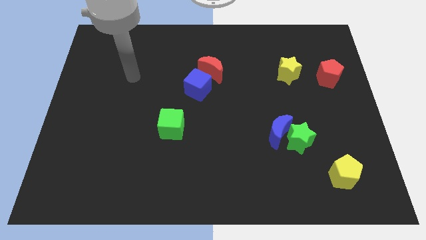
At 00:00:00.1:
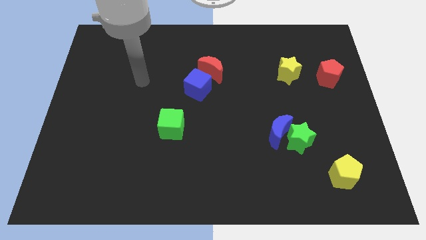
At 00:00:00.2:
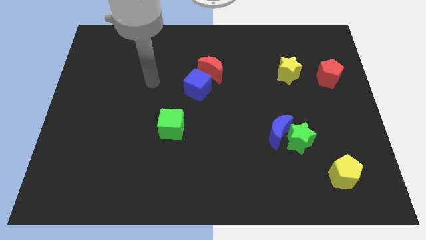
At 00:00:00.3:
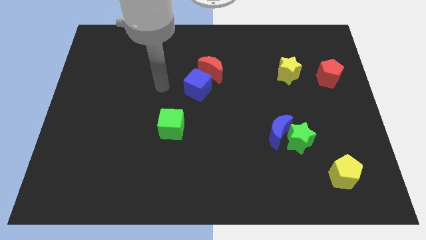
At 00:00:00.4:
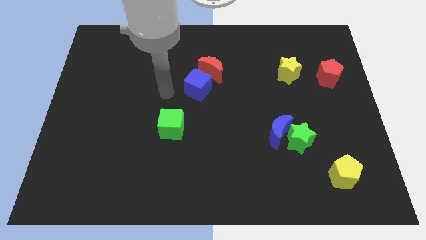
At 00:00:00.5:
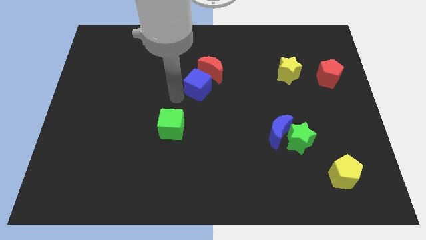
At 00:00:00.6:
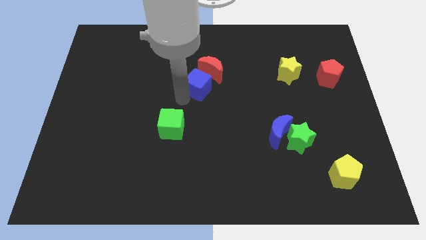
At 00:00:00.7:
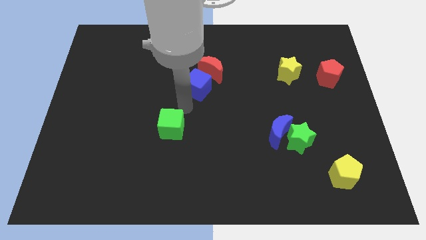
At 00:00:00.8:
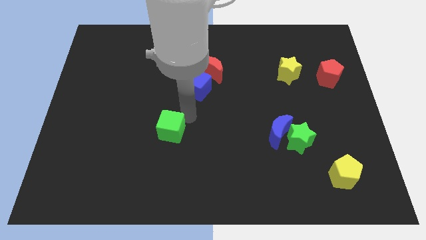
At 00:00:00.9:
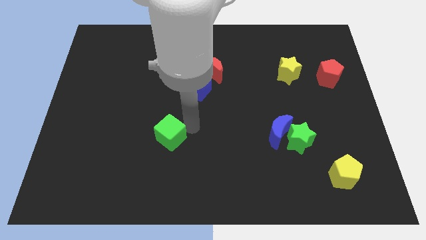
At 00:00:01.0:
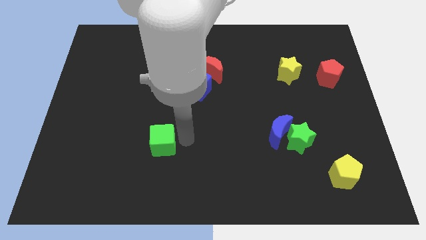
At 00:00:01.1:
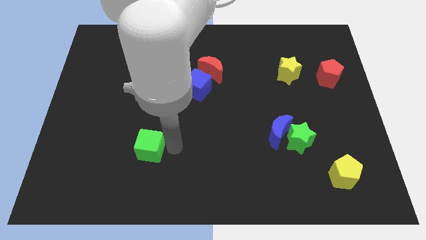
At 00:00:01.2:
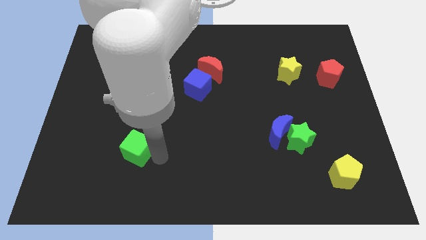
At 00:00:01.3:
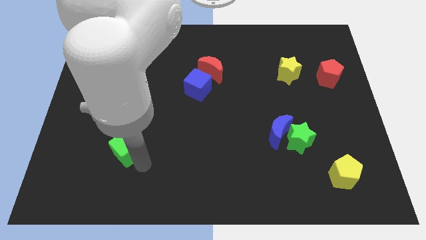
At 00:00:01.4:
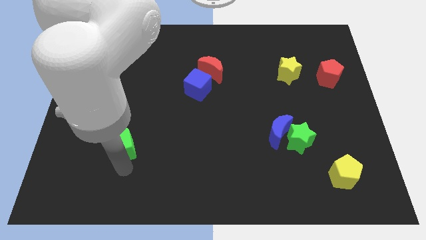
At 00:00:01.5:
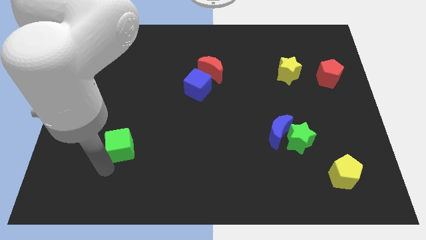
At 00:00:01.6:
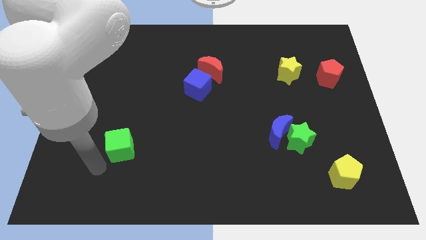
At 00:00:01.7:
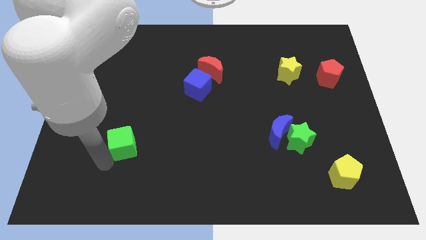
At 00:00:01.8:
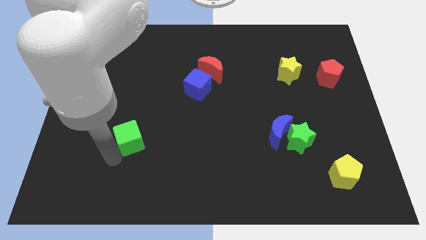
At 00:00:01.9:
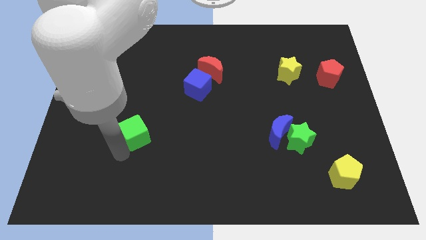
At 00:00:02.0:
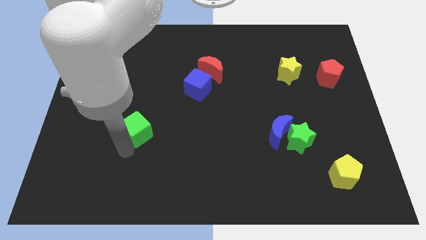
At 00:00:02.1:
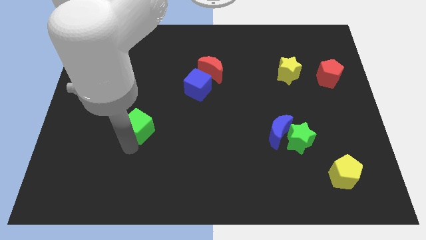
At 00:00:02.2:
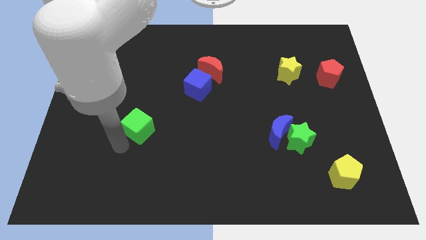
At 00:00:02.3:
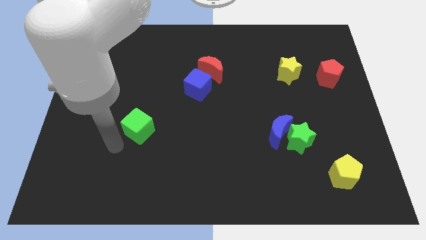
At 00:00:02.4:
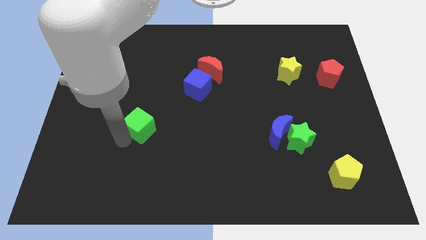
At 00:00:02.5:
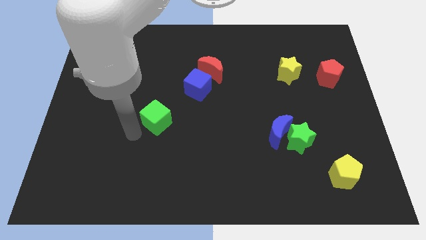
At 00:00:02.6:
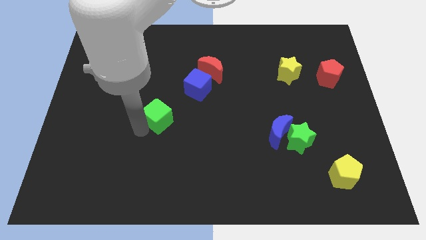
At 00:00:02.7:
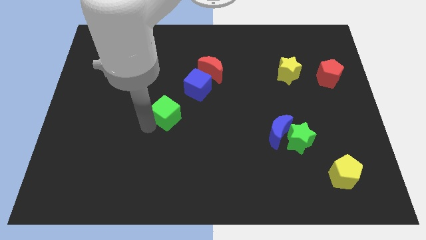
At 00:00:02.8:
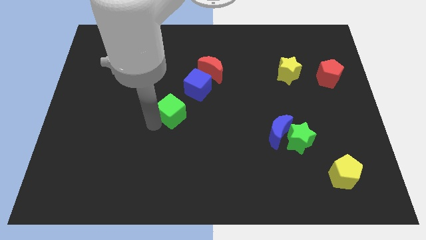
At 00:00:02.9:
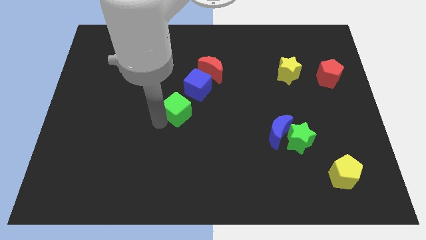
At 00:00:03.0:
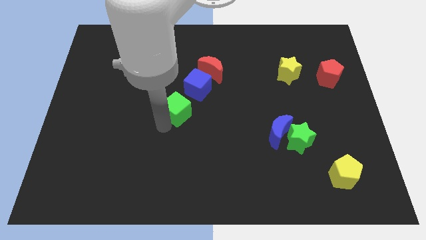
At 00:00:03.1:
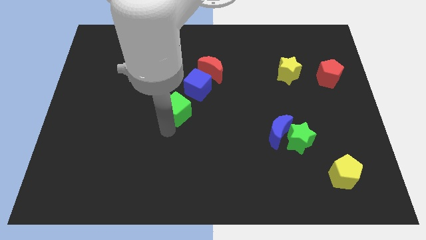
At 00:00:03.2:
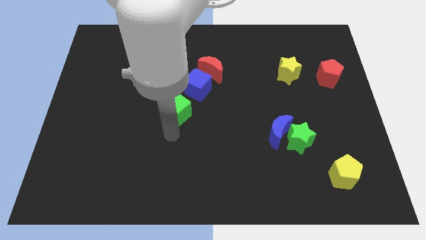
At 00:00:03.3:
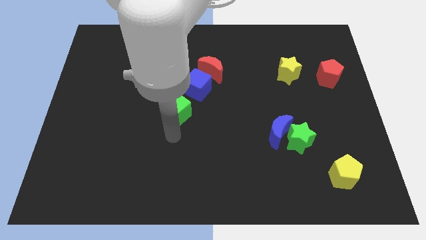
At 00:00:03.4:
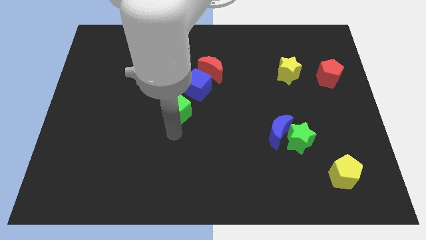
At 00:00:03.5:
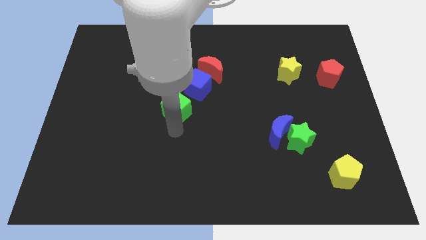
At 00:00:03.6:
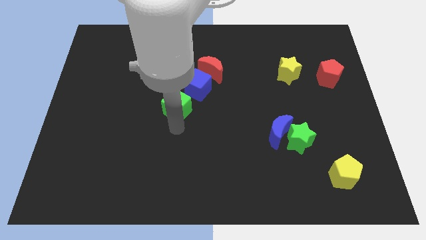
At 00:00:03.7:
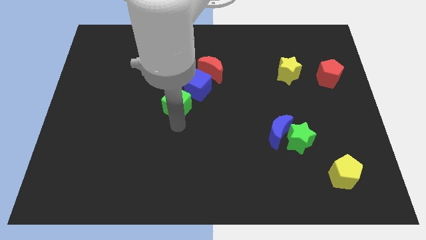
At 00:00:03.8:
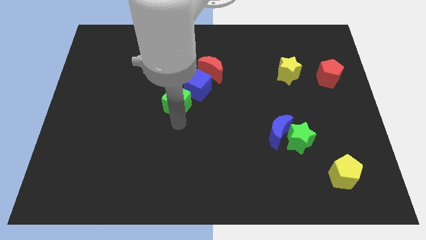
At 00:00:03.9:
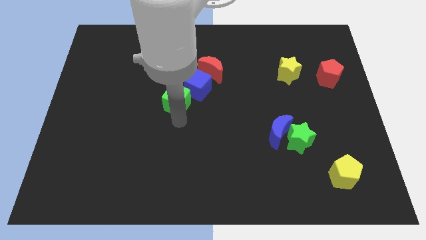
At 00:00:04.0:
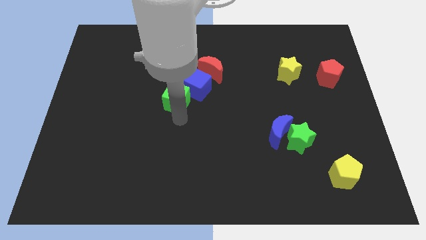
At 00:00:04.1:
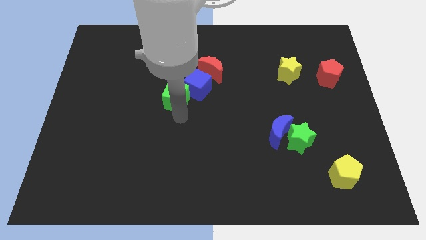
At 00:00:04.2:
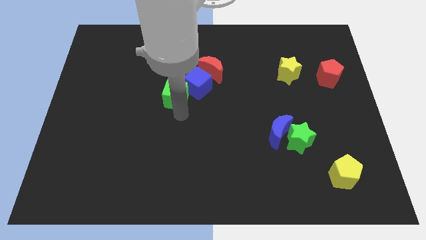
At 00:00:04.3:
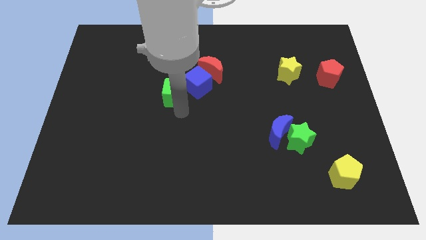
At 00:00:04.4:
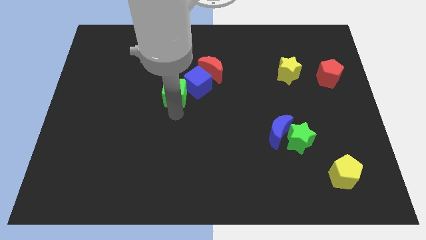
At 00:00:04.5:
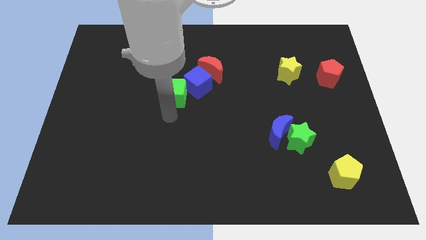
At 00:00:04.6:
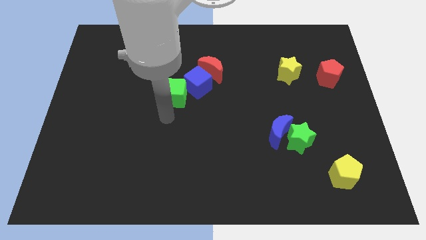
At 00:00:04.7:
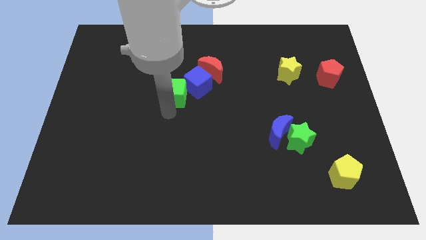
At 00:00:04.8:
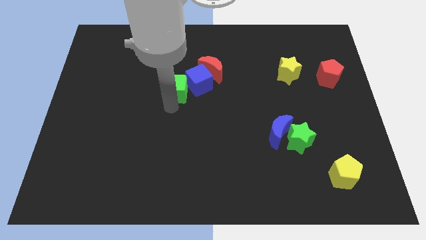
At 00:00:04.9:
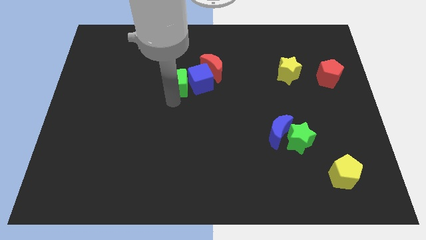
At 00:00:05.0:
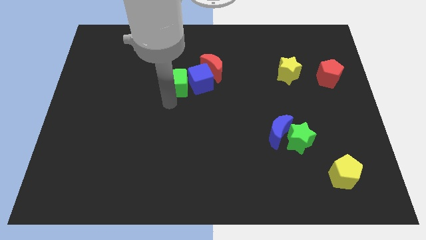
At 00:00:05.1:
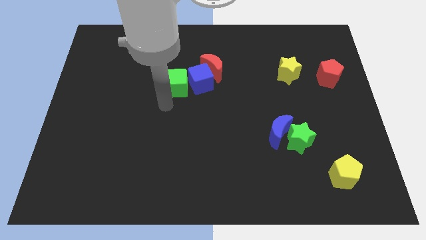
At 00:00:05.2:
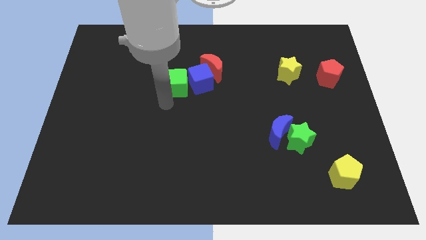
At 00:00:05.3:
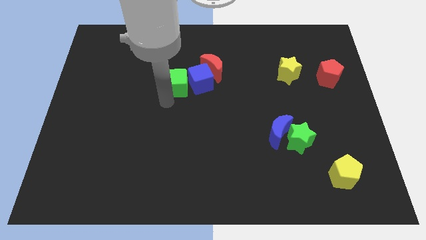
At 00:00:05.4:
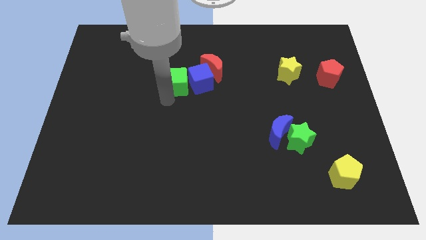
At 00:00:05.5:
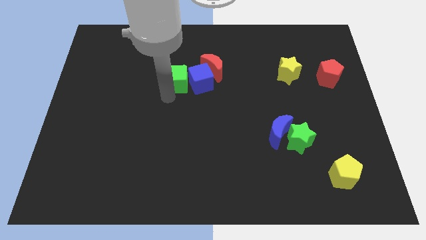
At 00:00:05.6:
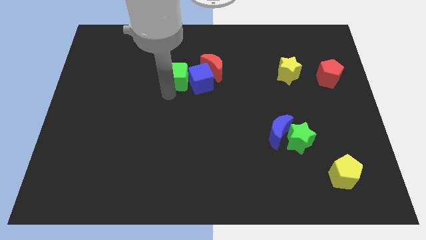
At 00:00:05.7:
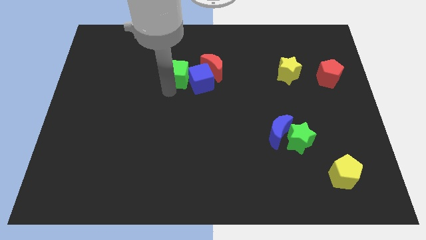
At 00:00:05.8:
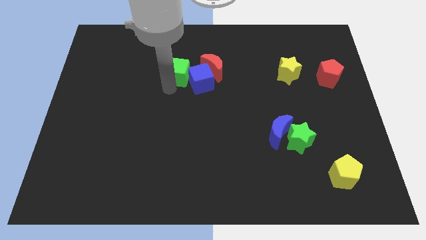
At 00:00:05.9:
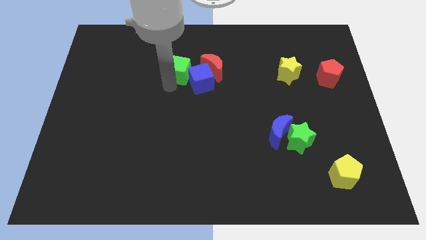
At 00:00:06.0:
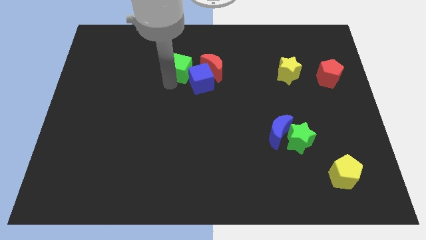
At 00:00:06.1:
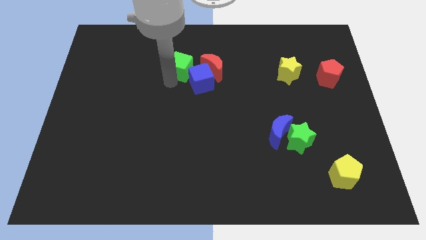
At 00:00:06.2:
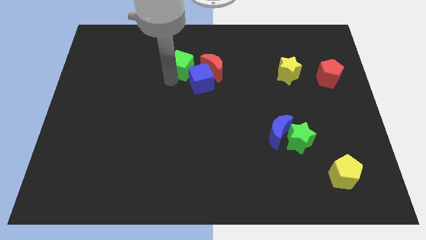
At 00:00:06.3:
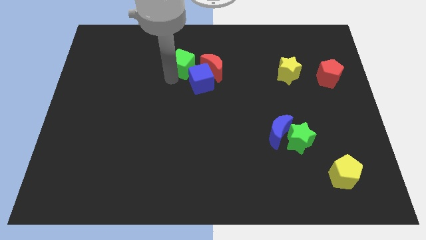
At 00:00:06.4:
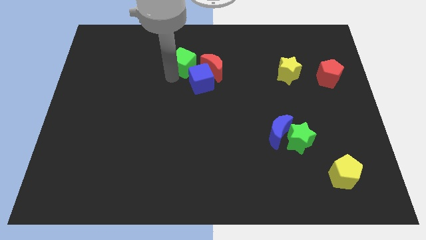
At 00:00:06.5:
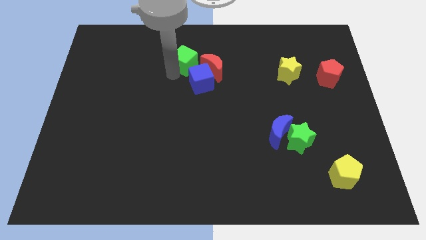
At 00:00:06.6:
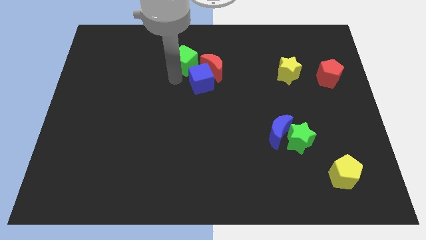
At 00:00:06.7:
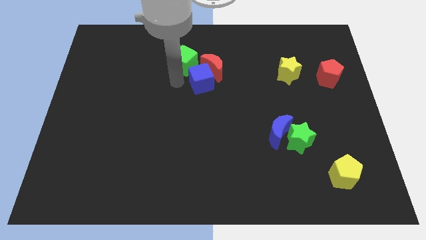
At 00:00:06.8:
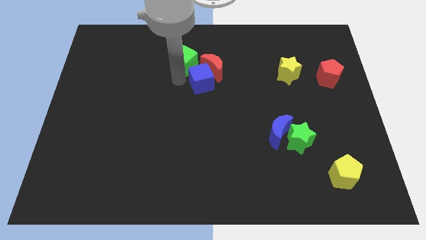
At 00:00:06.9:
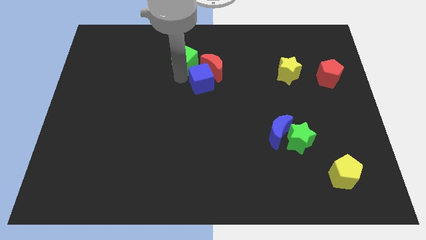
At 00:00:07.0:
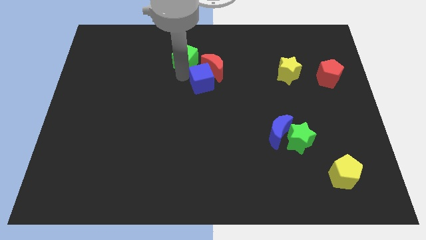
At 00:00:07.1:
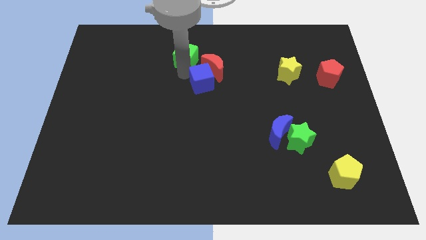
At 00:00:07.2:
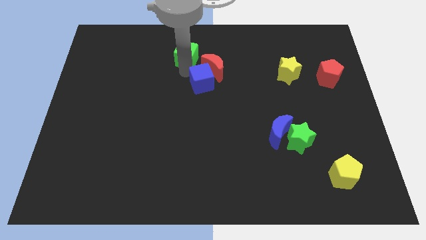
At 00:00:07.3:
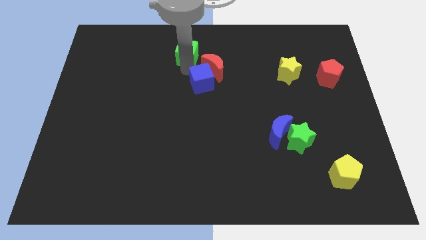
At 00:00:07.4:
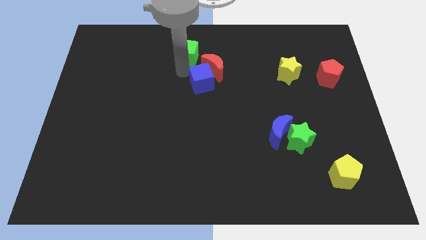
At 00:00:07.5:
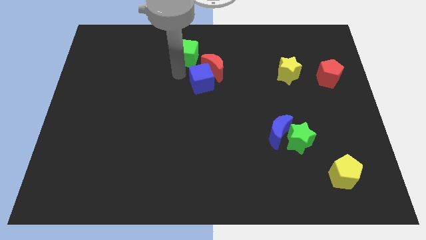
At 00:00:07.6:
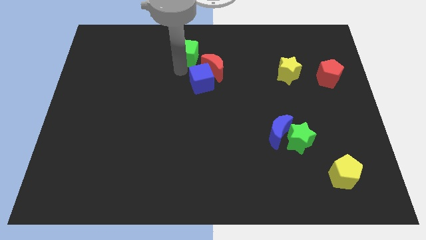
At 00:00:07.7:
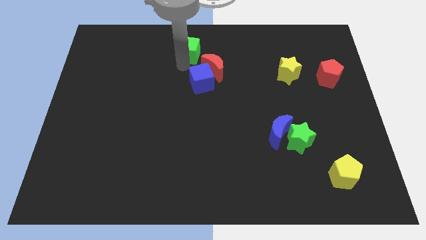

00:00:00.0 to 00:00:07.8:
put the green cube to the top side
